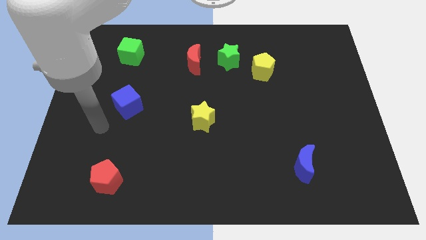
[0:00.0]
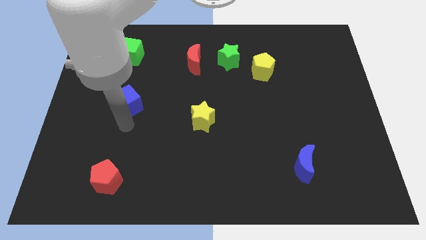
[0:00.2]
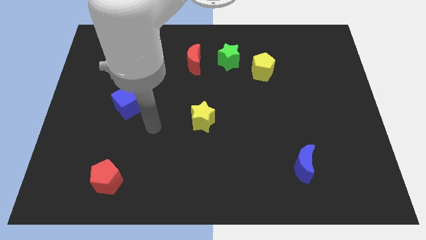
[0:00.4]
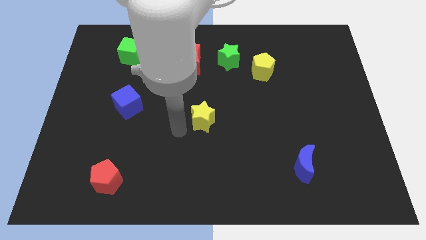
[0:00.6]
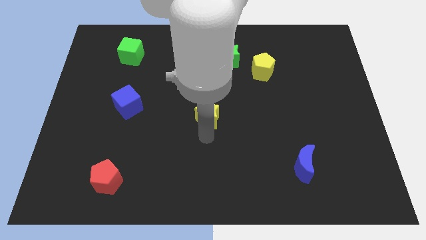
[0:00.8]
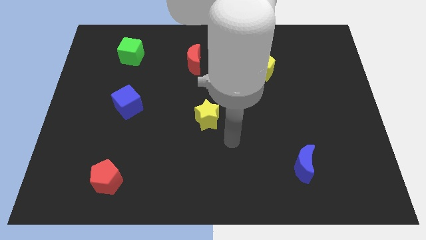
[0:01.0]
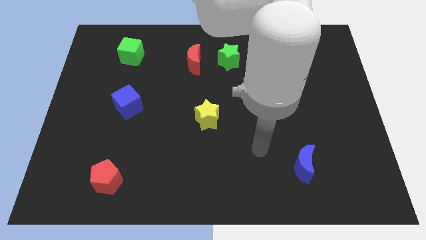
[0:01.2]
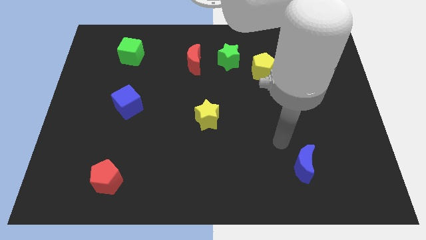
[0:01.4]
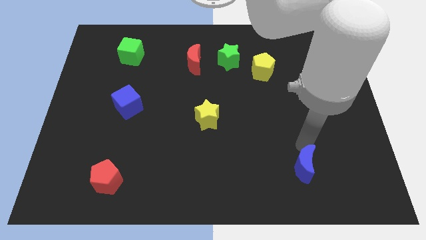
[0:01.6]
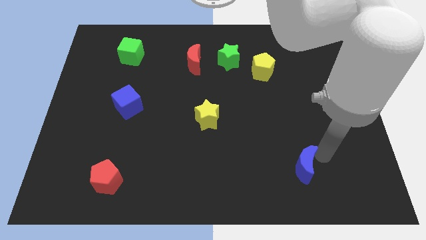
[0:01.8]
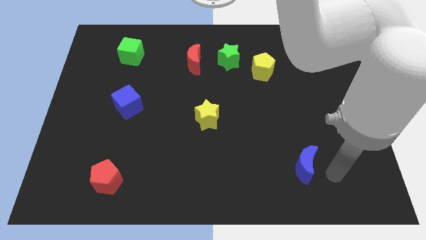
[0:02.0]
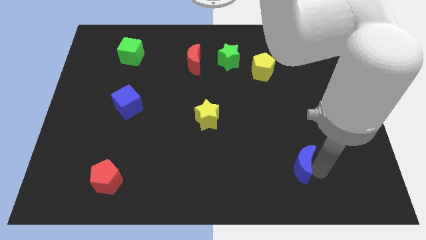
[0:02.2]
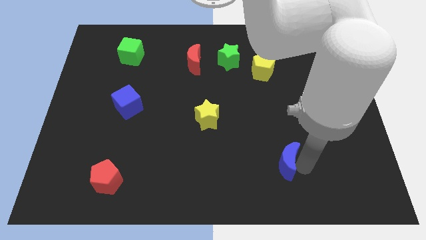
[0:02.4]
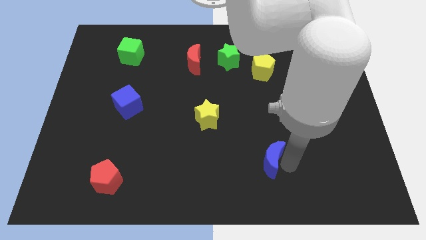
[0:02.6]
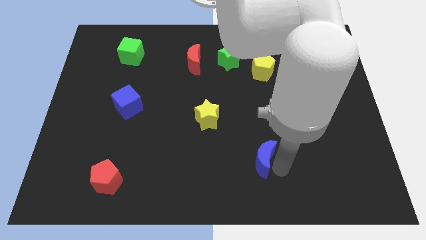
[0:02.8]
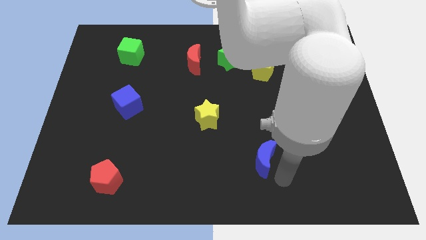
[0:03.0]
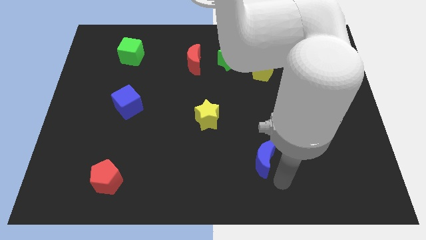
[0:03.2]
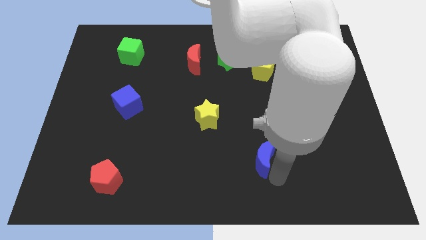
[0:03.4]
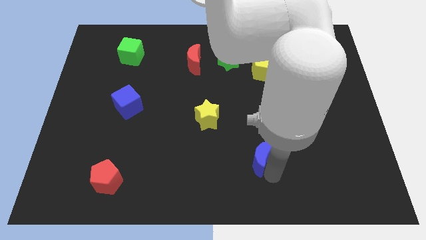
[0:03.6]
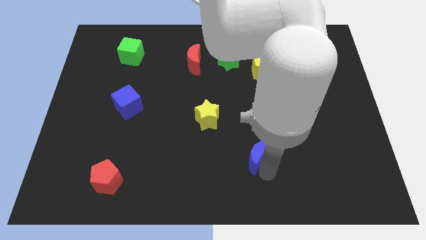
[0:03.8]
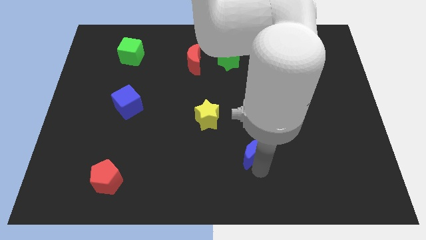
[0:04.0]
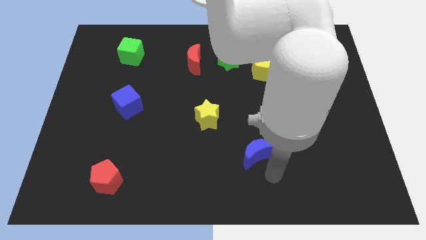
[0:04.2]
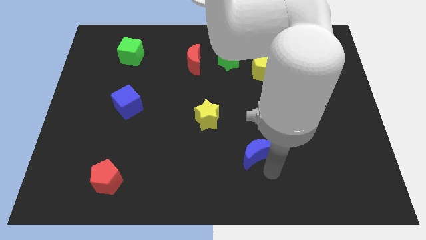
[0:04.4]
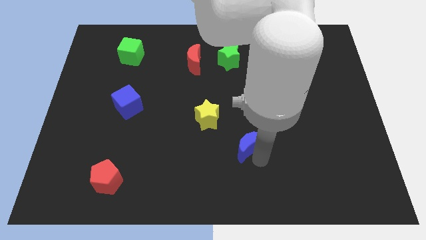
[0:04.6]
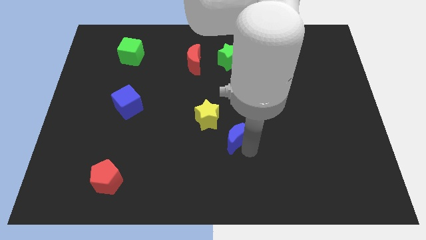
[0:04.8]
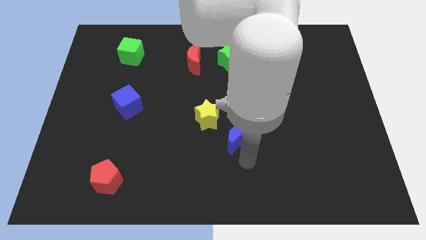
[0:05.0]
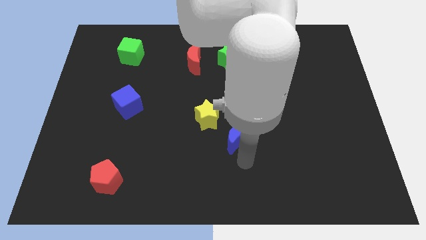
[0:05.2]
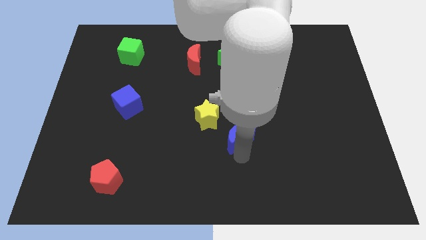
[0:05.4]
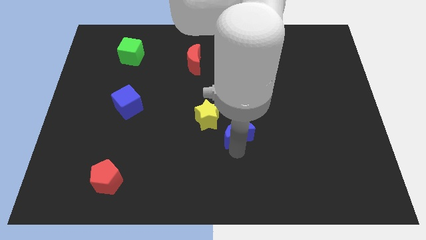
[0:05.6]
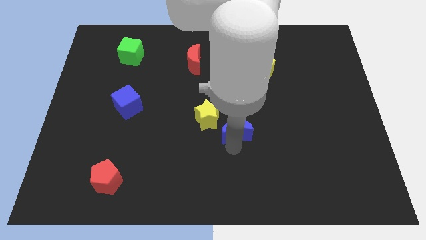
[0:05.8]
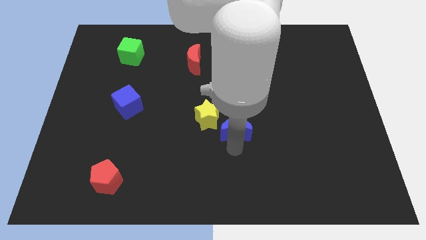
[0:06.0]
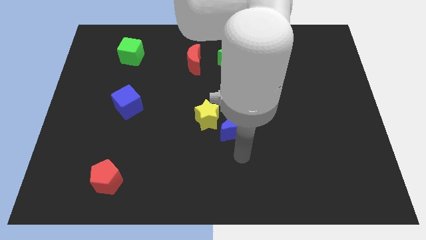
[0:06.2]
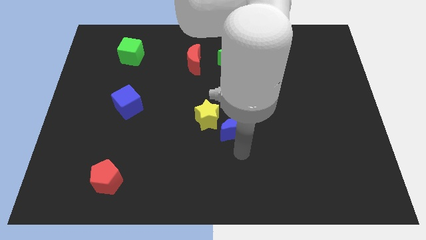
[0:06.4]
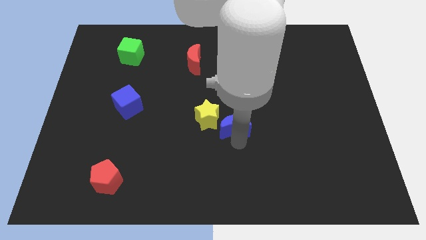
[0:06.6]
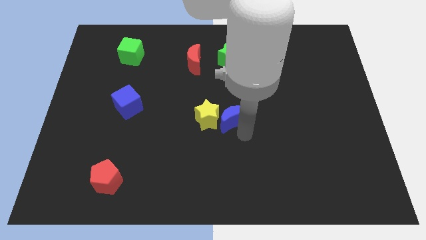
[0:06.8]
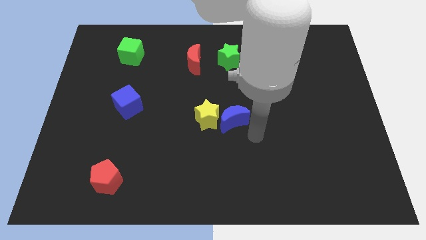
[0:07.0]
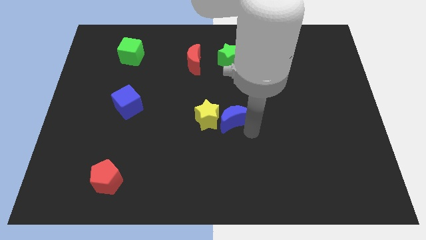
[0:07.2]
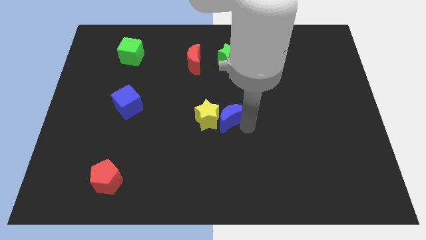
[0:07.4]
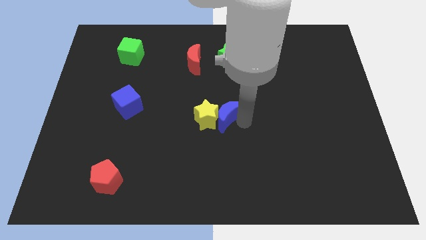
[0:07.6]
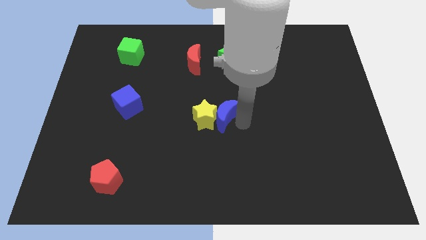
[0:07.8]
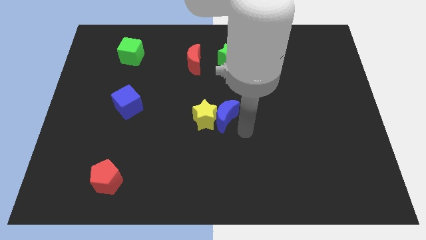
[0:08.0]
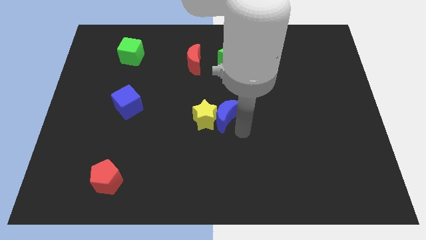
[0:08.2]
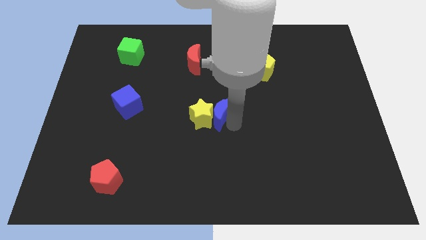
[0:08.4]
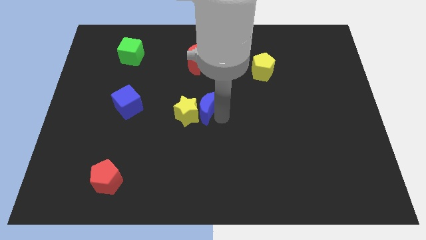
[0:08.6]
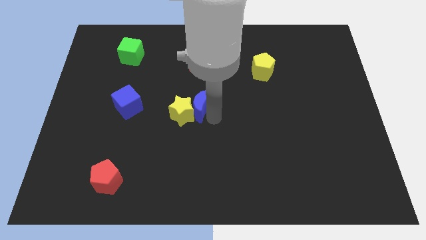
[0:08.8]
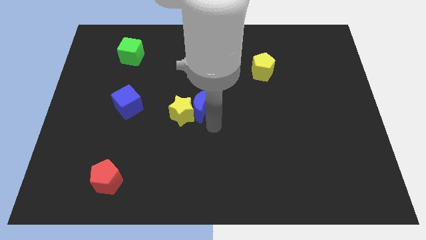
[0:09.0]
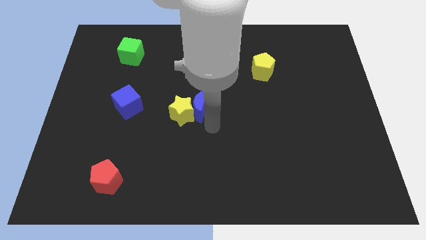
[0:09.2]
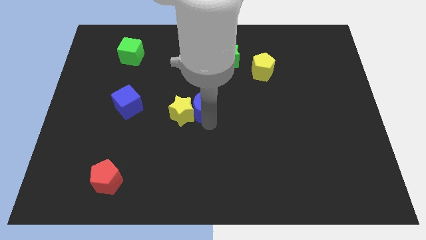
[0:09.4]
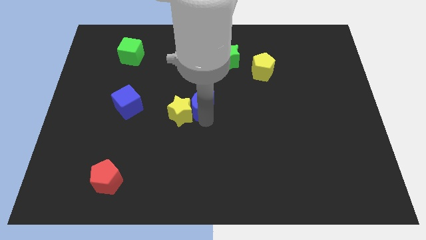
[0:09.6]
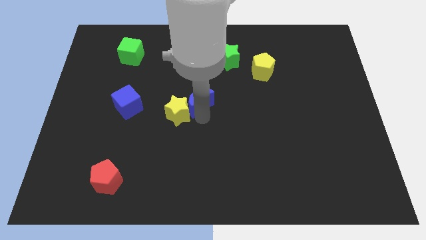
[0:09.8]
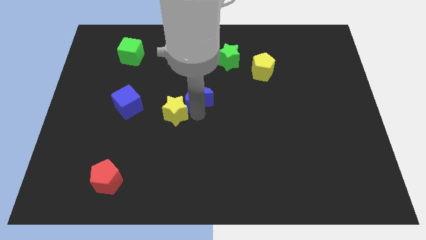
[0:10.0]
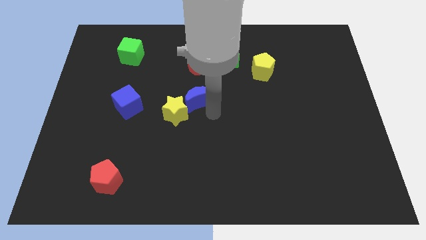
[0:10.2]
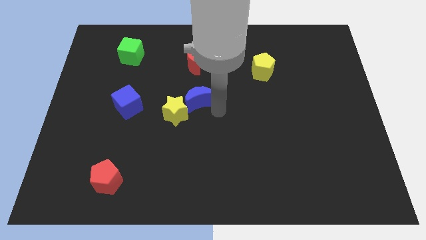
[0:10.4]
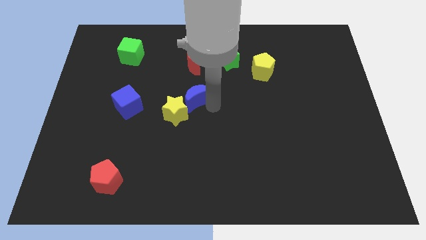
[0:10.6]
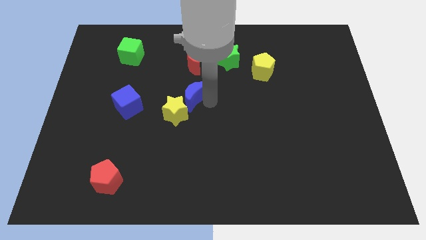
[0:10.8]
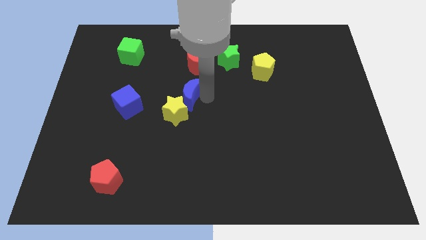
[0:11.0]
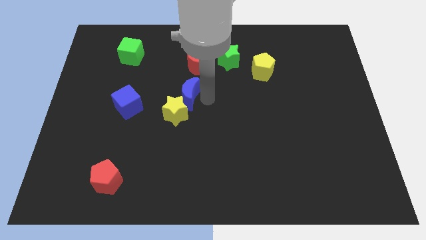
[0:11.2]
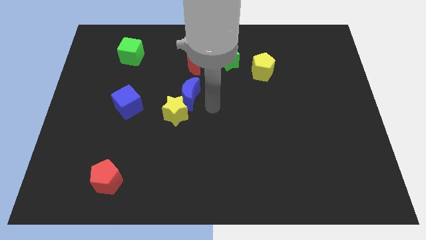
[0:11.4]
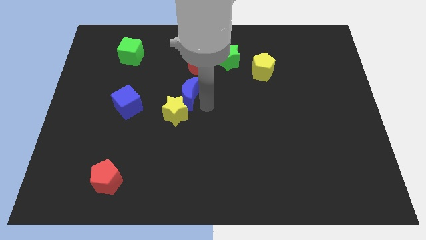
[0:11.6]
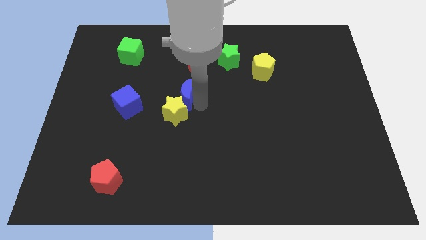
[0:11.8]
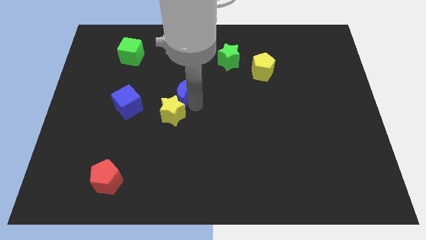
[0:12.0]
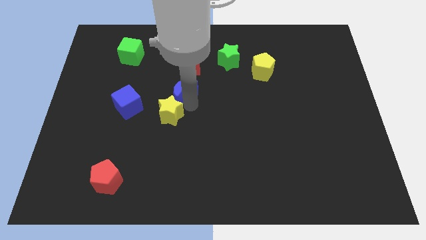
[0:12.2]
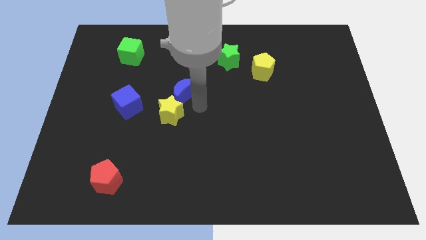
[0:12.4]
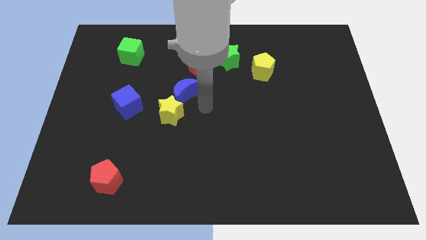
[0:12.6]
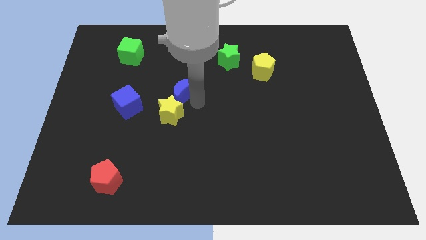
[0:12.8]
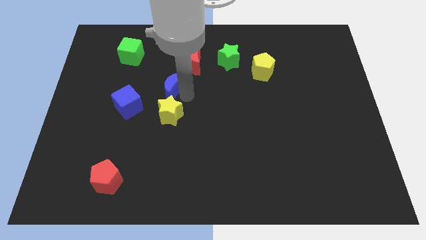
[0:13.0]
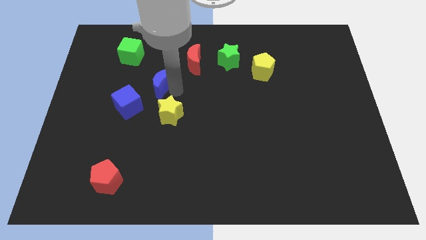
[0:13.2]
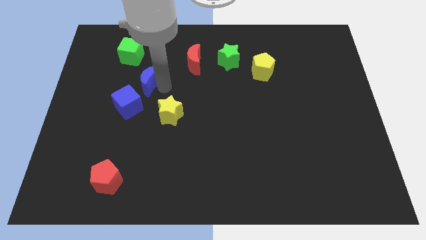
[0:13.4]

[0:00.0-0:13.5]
move the blue moon to the top side of the blue cube
